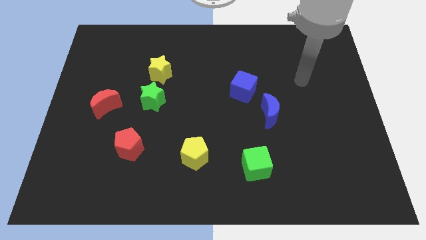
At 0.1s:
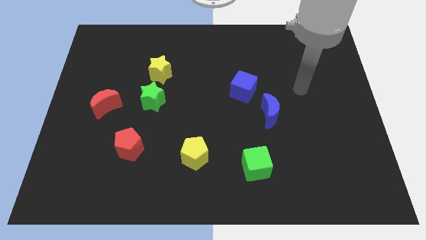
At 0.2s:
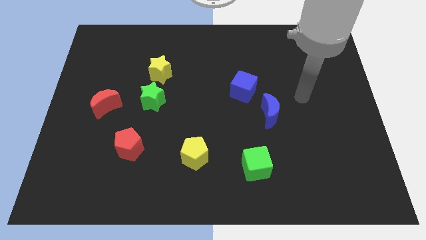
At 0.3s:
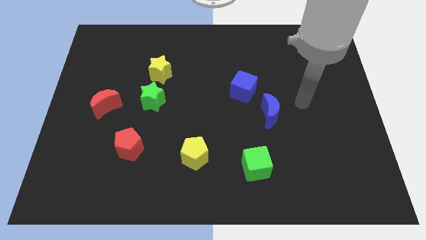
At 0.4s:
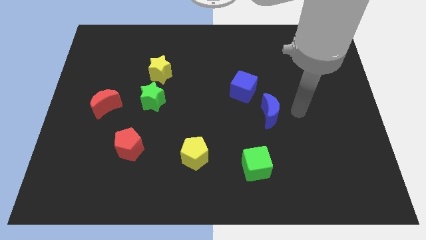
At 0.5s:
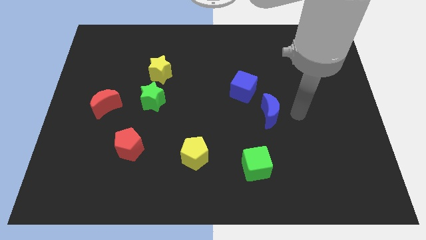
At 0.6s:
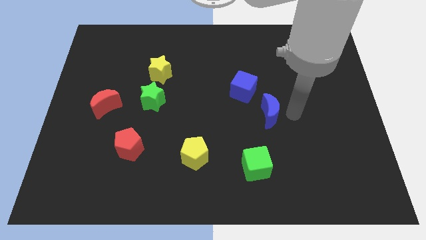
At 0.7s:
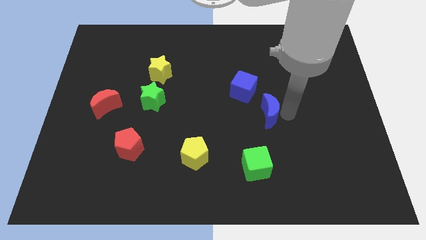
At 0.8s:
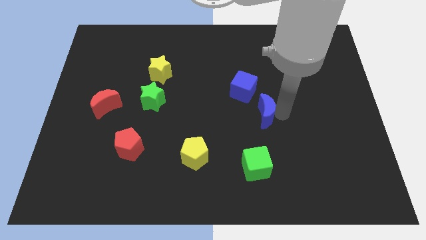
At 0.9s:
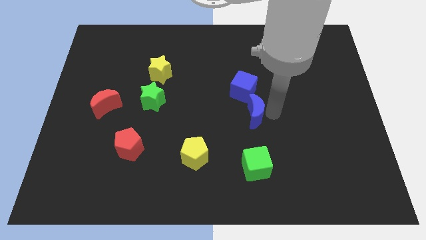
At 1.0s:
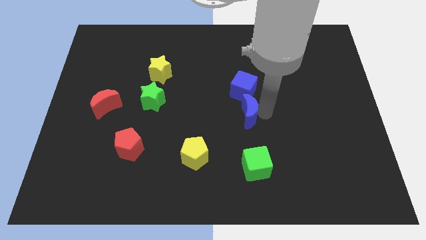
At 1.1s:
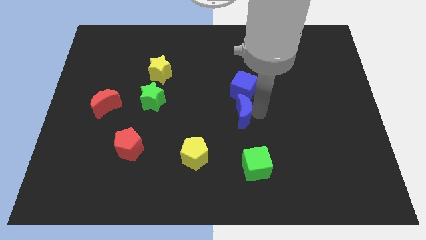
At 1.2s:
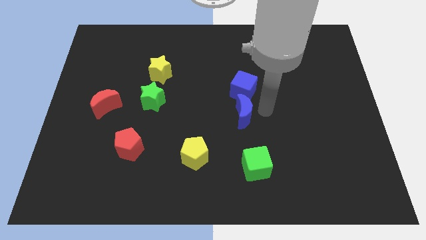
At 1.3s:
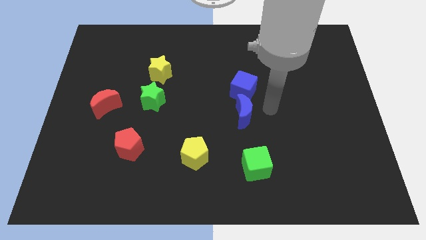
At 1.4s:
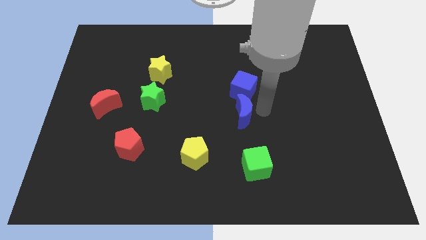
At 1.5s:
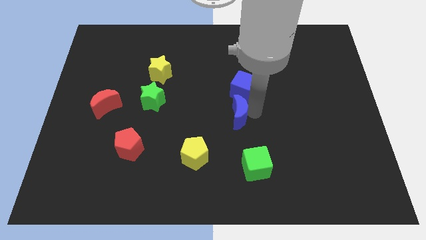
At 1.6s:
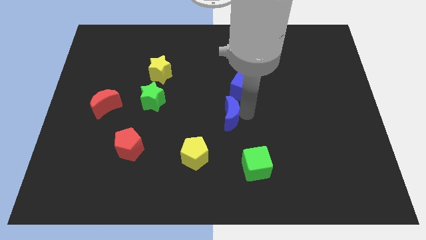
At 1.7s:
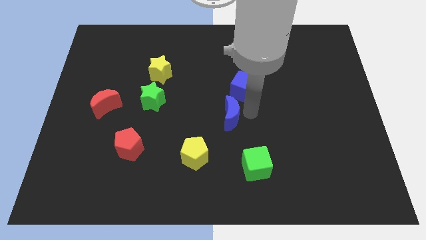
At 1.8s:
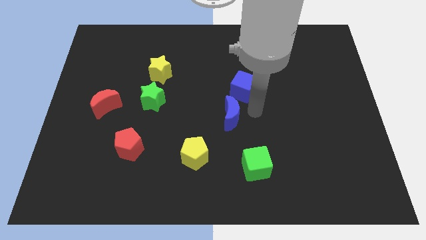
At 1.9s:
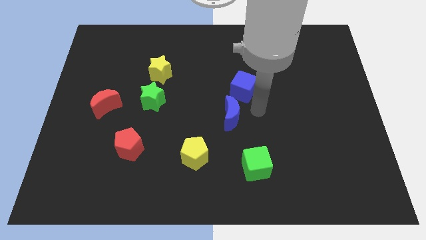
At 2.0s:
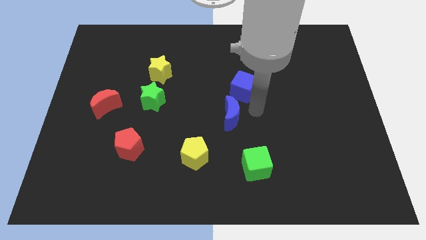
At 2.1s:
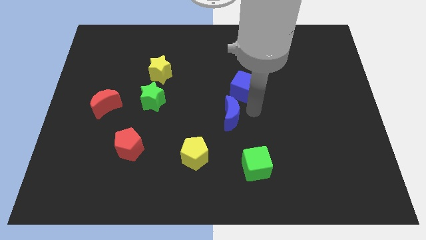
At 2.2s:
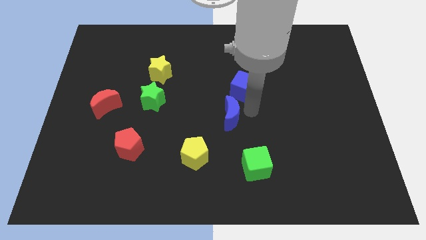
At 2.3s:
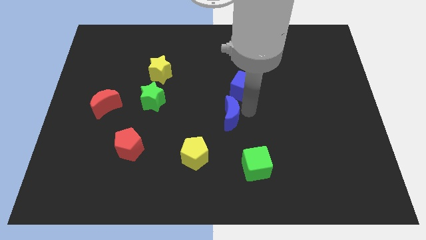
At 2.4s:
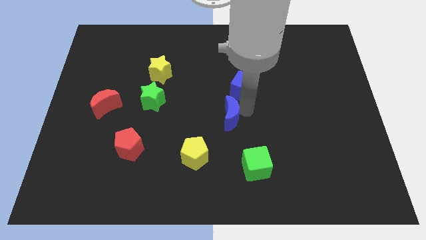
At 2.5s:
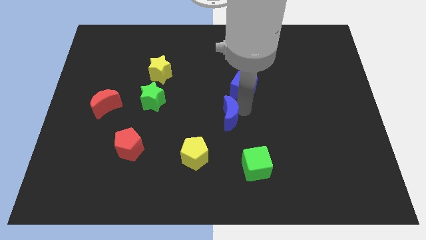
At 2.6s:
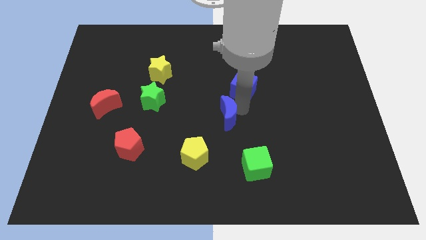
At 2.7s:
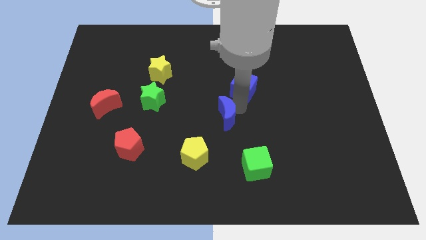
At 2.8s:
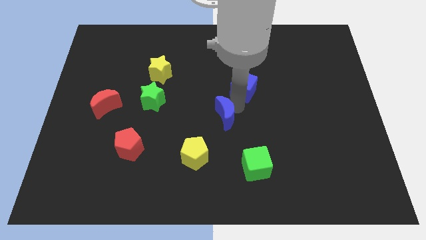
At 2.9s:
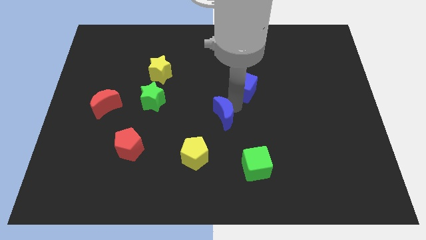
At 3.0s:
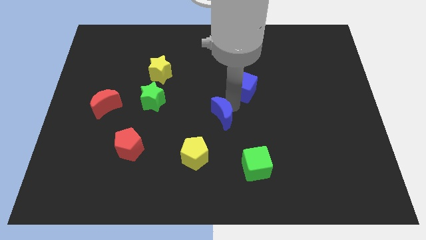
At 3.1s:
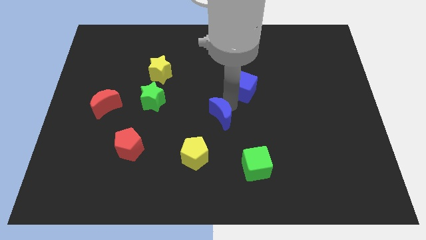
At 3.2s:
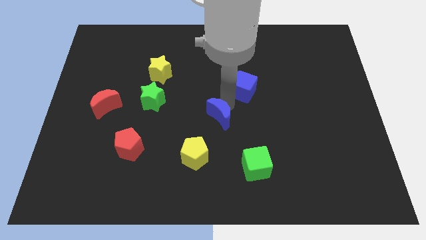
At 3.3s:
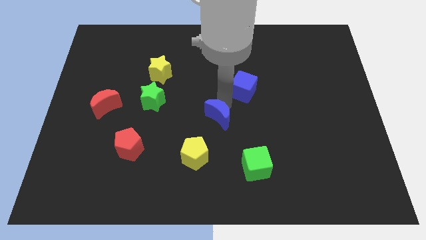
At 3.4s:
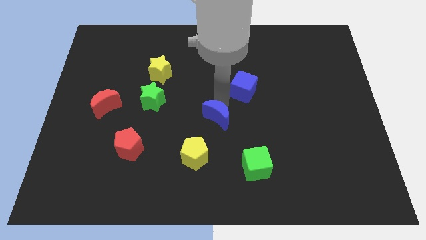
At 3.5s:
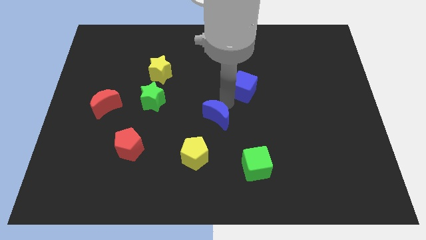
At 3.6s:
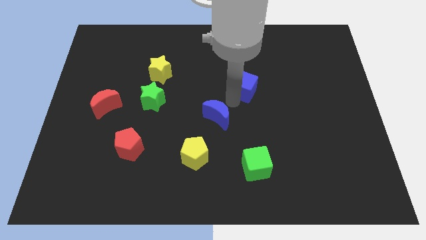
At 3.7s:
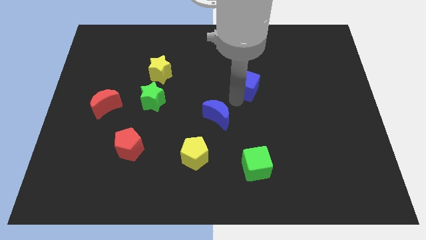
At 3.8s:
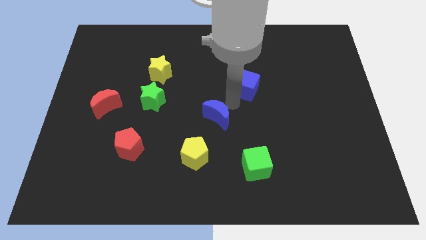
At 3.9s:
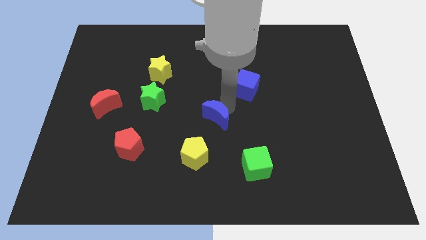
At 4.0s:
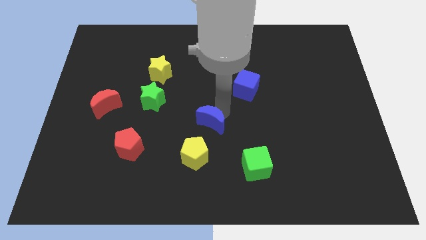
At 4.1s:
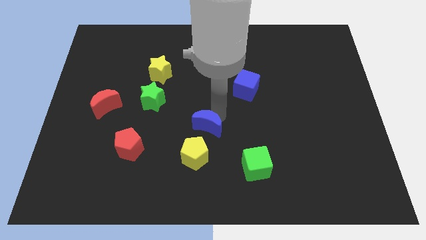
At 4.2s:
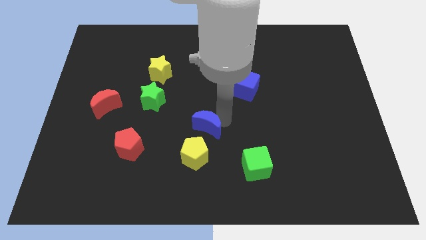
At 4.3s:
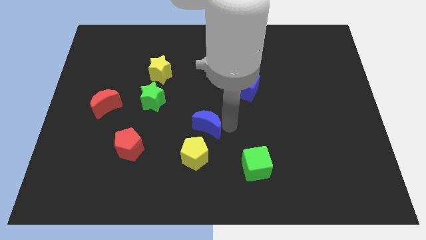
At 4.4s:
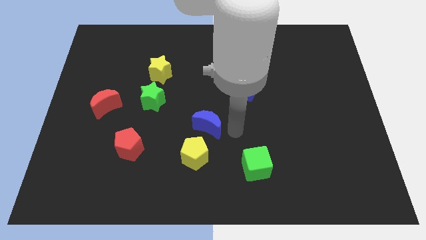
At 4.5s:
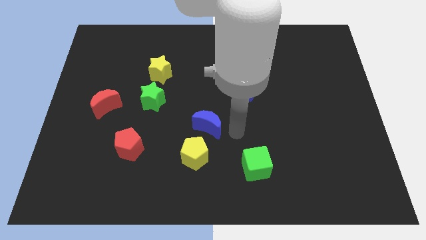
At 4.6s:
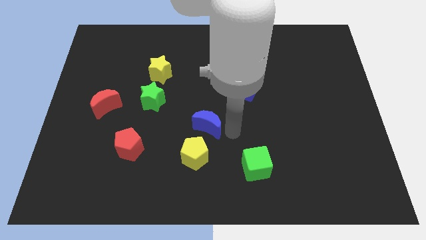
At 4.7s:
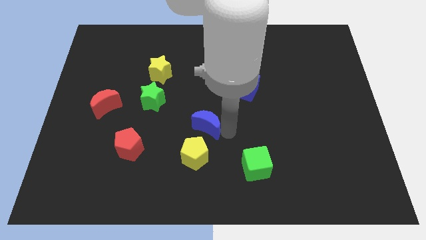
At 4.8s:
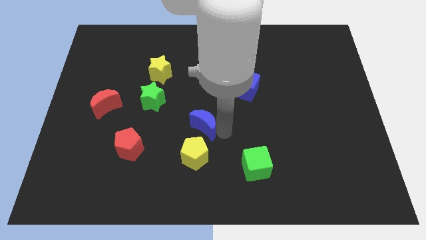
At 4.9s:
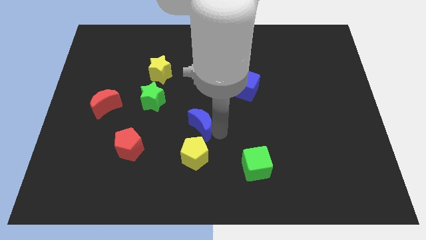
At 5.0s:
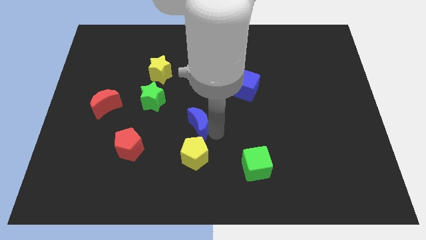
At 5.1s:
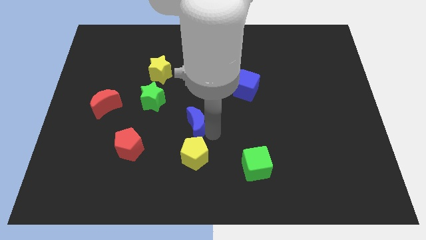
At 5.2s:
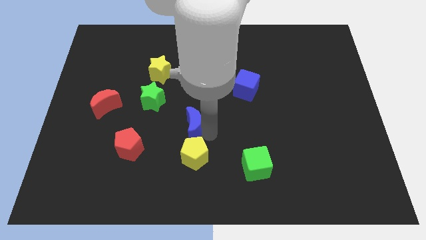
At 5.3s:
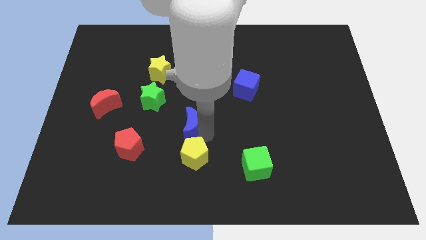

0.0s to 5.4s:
push the blue moon diagonally down and to the right of the green star

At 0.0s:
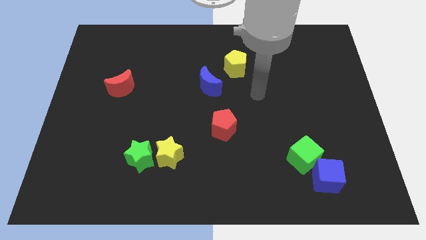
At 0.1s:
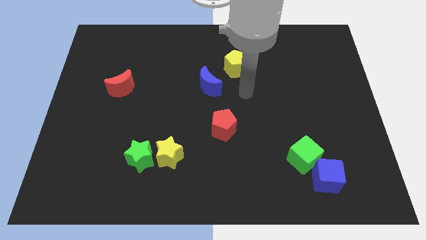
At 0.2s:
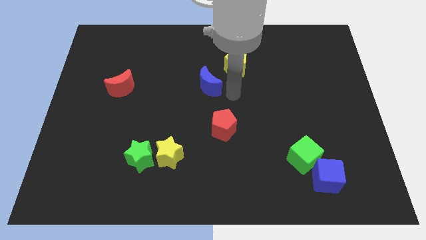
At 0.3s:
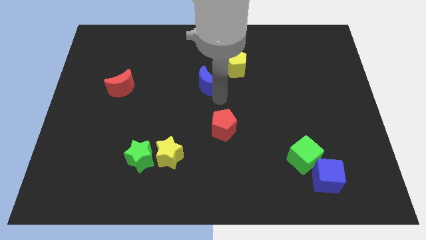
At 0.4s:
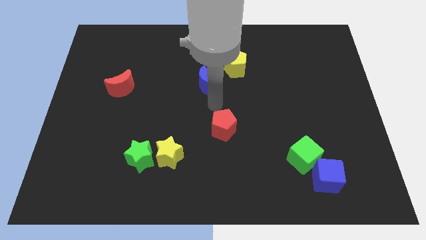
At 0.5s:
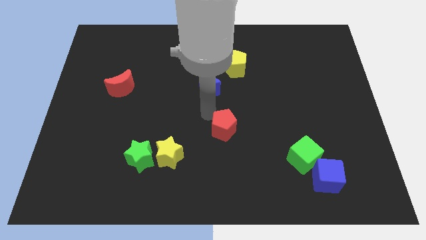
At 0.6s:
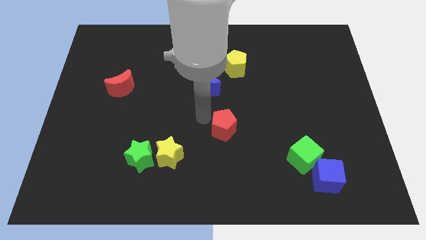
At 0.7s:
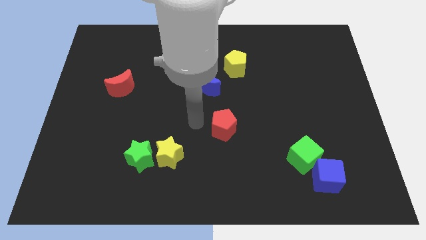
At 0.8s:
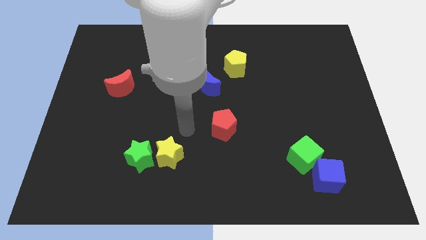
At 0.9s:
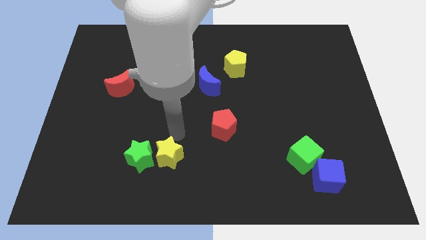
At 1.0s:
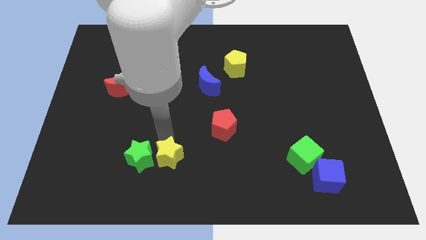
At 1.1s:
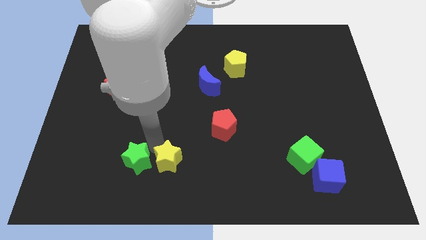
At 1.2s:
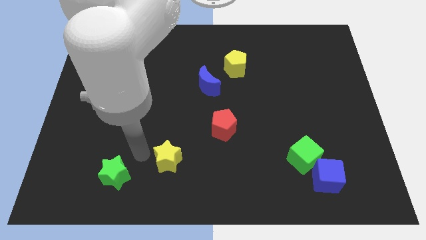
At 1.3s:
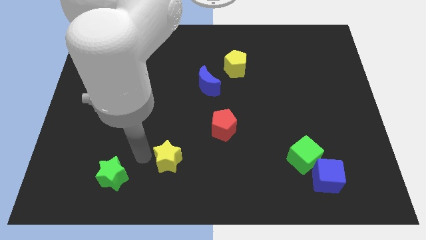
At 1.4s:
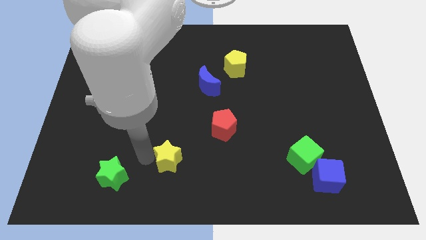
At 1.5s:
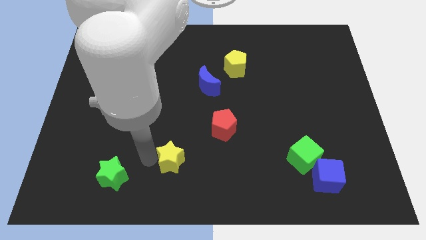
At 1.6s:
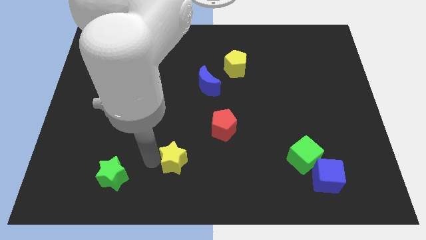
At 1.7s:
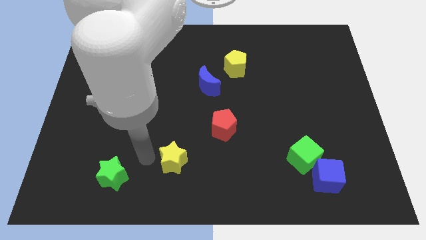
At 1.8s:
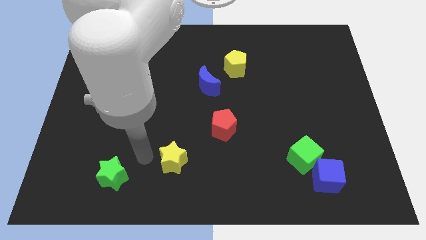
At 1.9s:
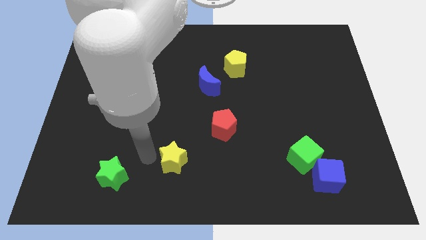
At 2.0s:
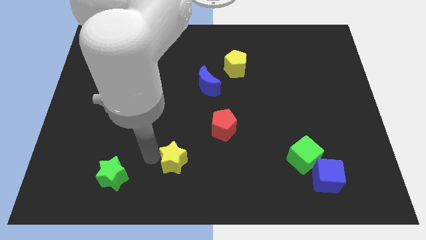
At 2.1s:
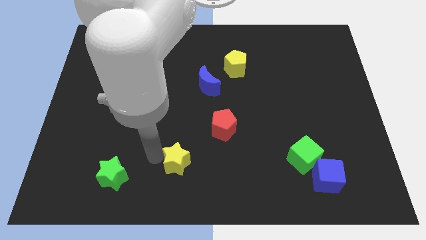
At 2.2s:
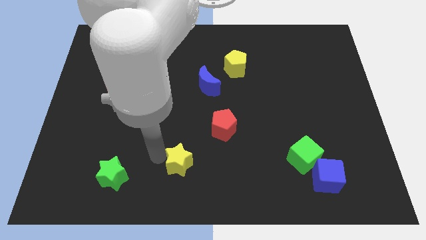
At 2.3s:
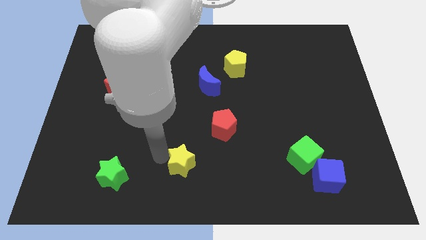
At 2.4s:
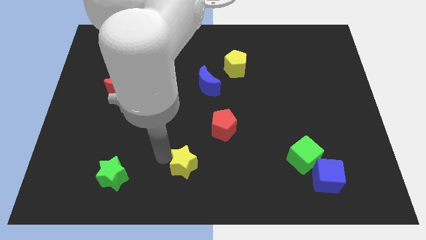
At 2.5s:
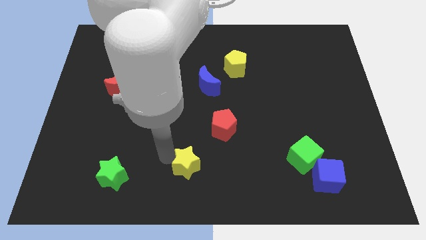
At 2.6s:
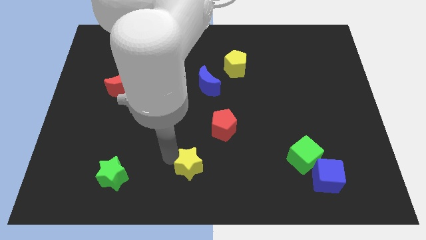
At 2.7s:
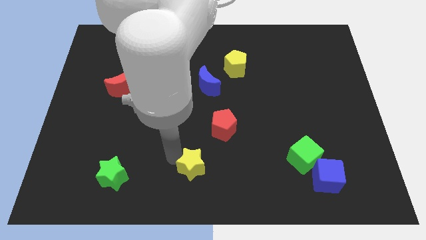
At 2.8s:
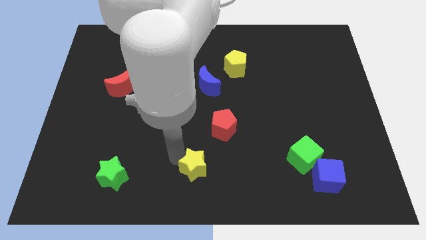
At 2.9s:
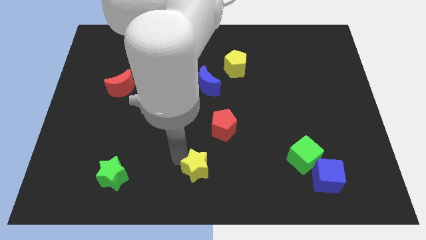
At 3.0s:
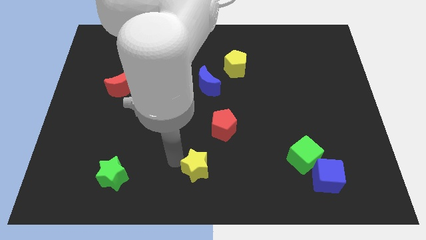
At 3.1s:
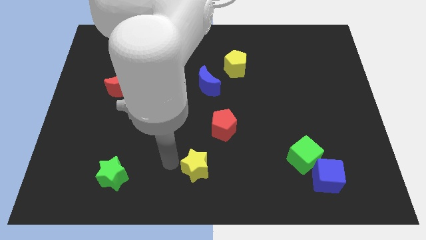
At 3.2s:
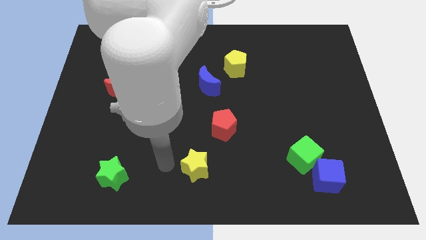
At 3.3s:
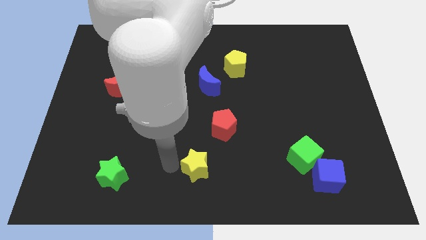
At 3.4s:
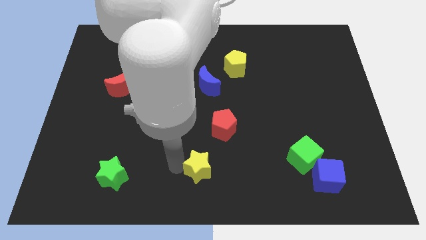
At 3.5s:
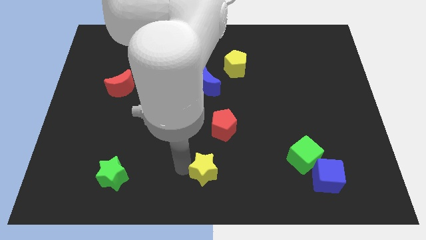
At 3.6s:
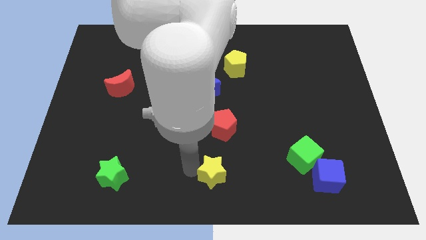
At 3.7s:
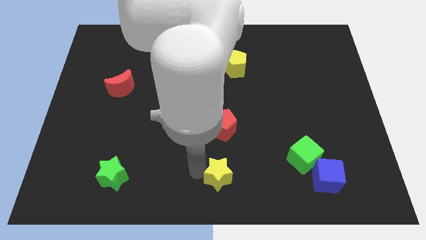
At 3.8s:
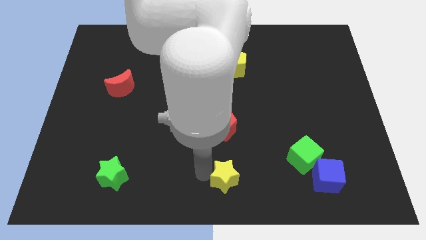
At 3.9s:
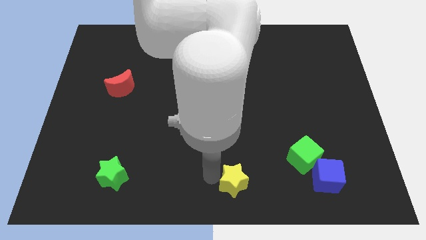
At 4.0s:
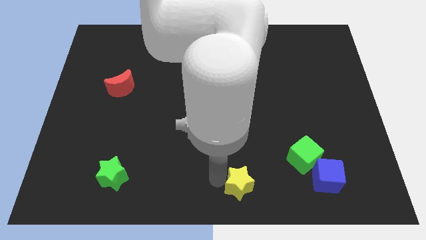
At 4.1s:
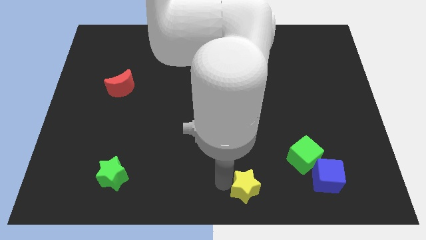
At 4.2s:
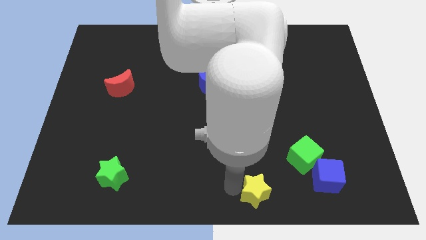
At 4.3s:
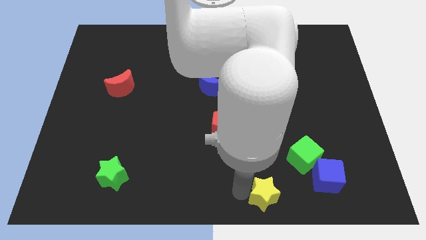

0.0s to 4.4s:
move the yellow star to the bottom left side of the green cube
